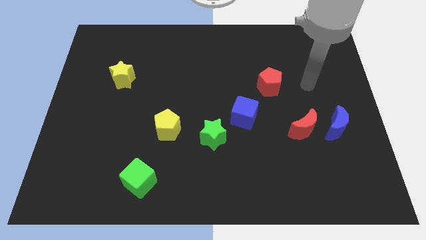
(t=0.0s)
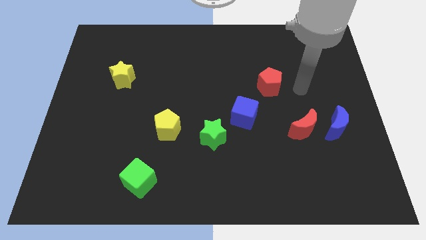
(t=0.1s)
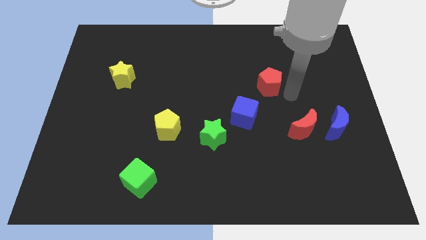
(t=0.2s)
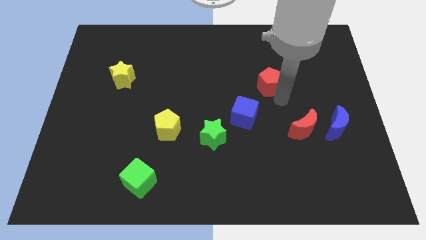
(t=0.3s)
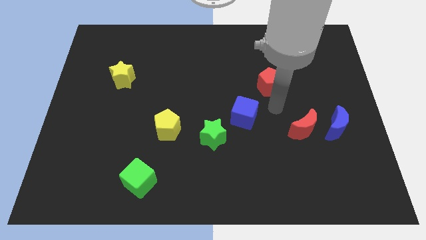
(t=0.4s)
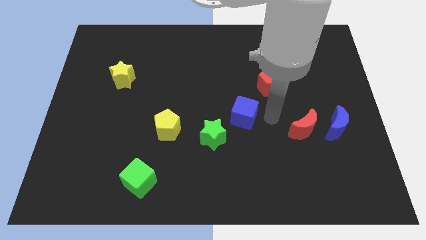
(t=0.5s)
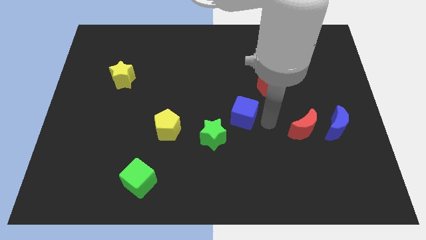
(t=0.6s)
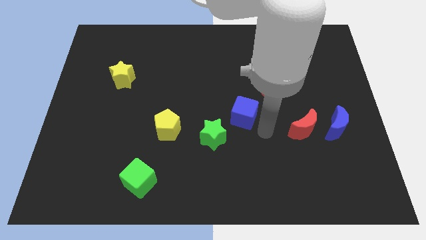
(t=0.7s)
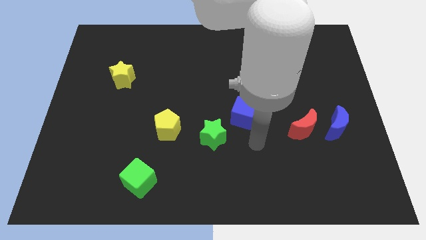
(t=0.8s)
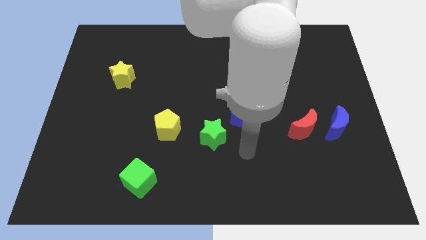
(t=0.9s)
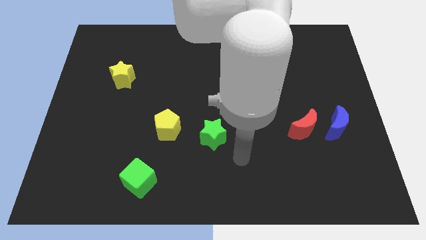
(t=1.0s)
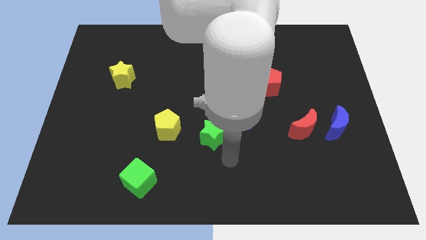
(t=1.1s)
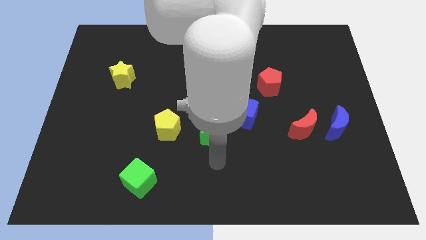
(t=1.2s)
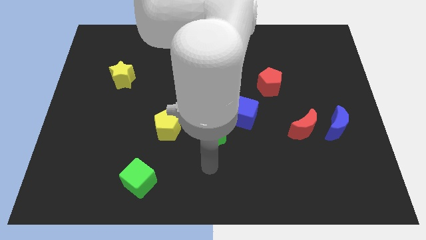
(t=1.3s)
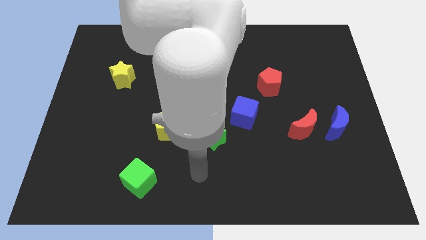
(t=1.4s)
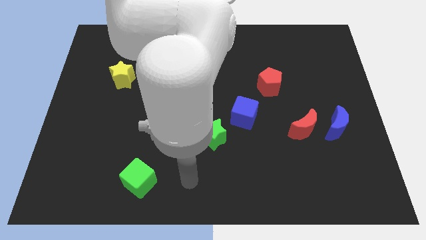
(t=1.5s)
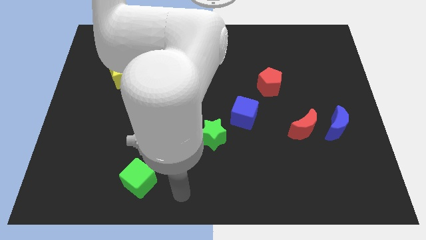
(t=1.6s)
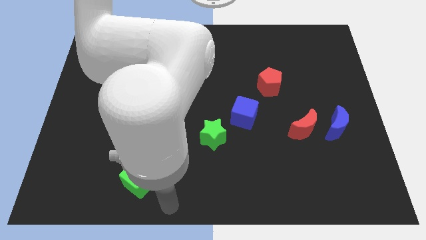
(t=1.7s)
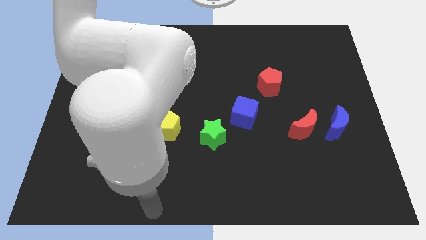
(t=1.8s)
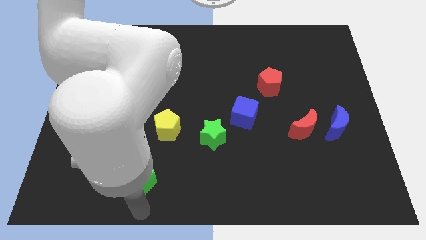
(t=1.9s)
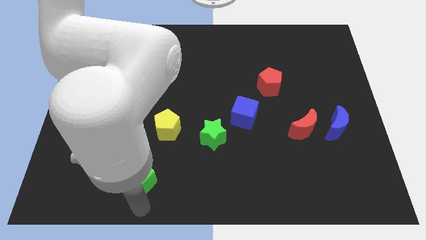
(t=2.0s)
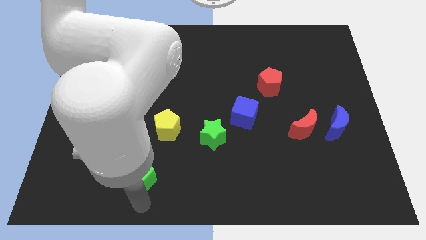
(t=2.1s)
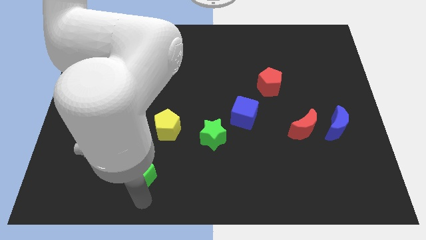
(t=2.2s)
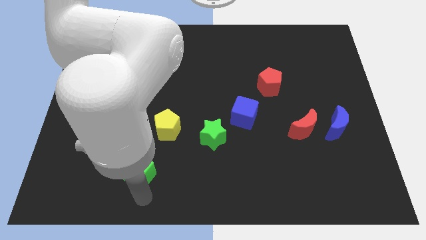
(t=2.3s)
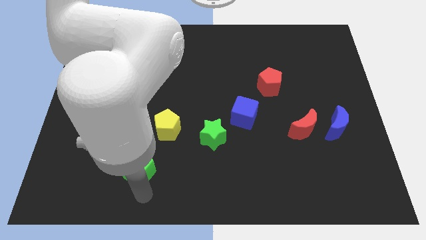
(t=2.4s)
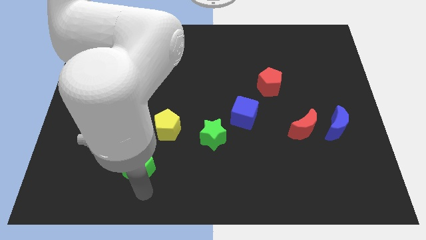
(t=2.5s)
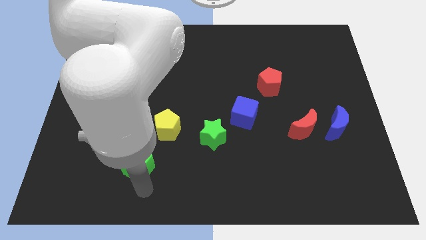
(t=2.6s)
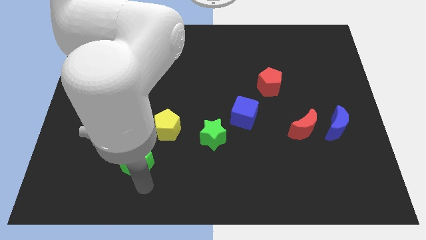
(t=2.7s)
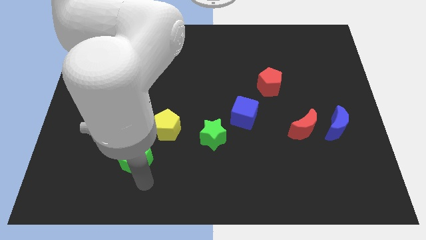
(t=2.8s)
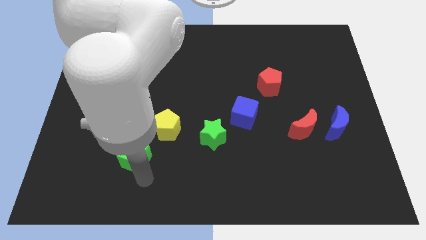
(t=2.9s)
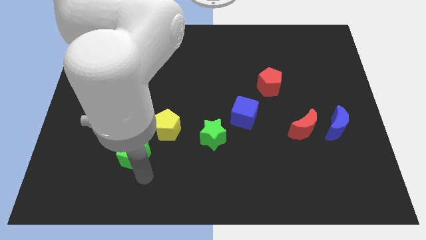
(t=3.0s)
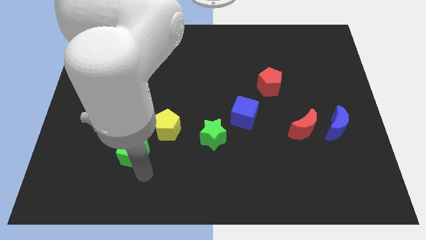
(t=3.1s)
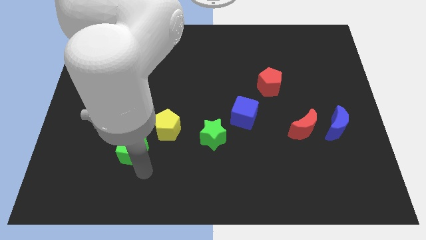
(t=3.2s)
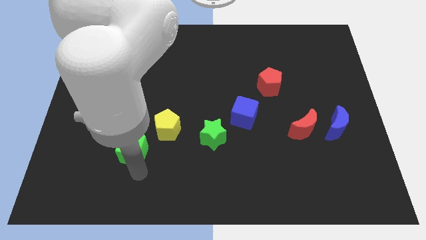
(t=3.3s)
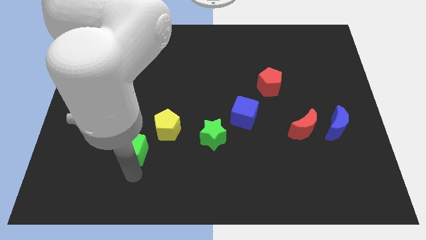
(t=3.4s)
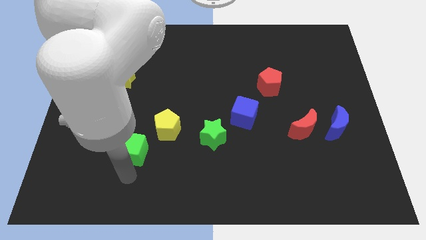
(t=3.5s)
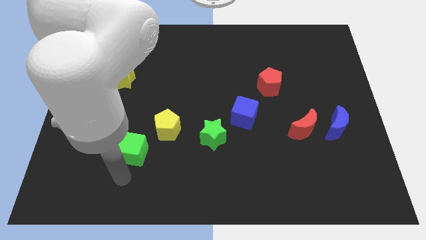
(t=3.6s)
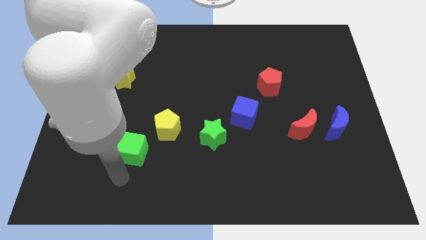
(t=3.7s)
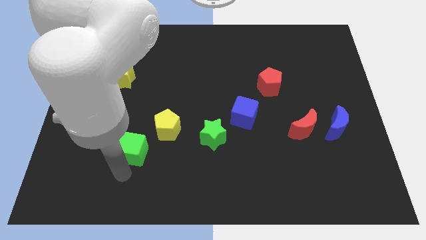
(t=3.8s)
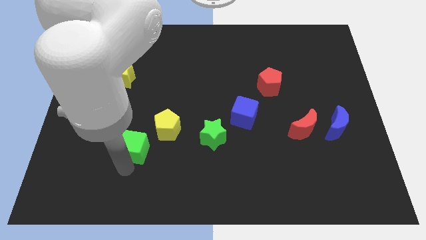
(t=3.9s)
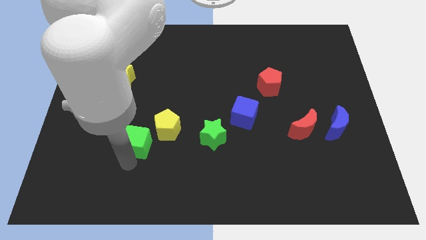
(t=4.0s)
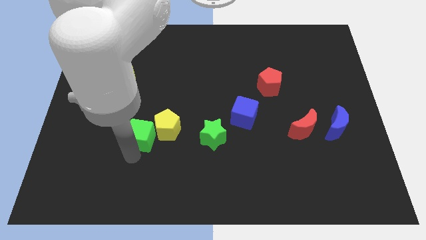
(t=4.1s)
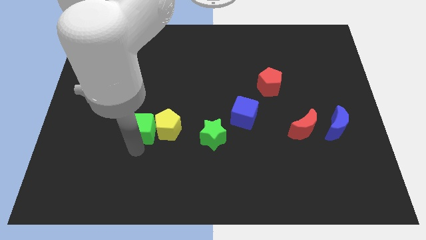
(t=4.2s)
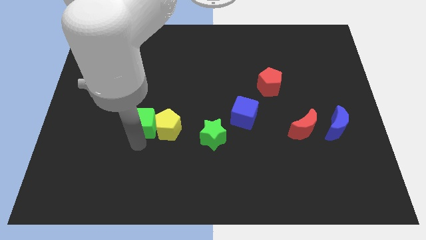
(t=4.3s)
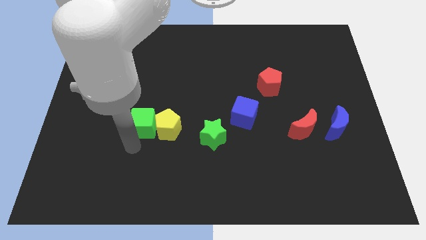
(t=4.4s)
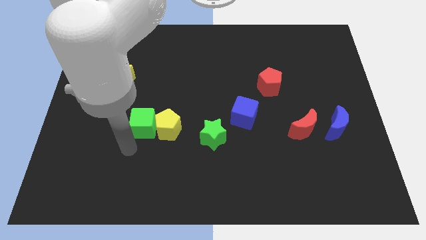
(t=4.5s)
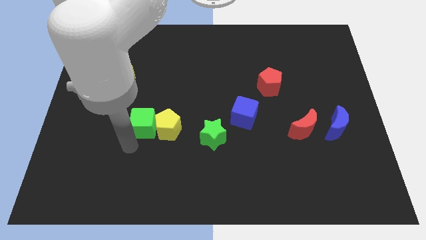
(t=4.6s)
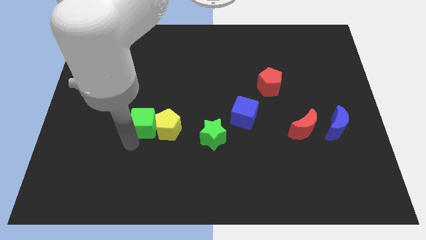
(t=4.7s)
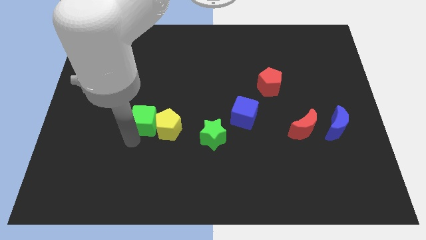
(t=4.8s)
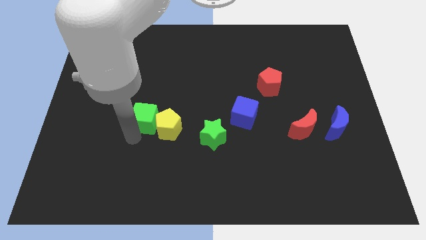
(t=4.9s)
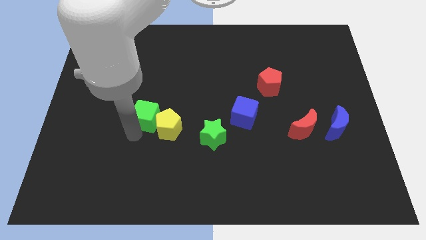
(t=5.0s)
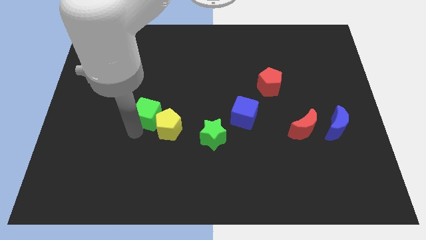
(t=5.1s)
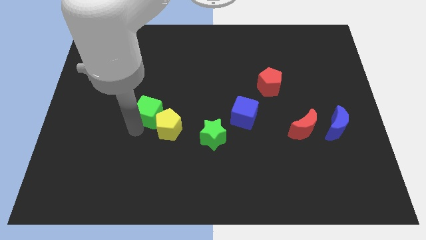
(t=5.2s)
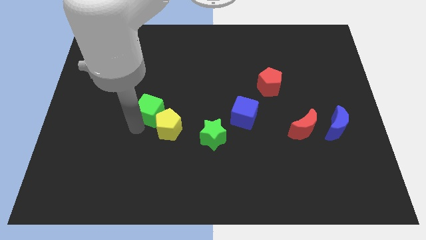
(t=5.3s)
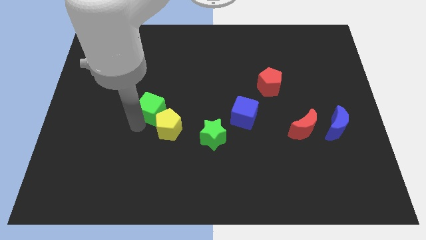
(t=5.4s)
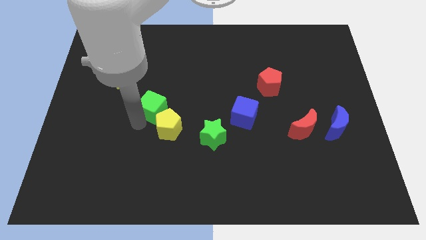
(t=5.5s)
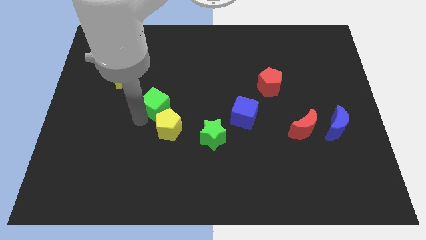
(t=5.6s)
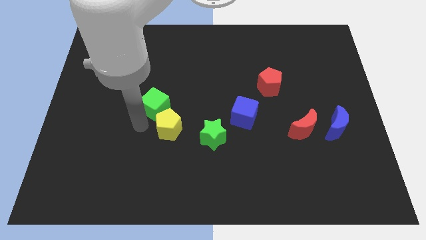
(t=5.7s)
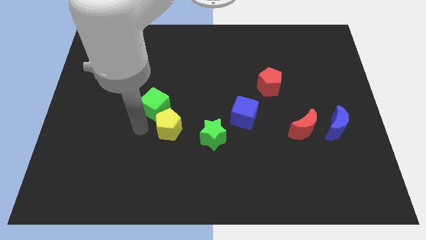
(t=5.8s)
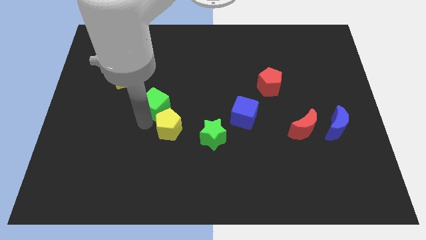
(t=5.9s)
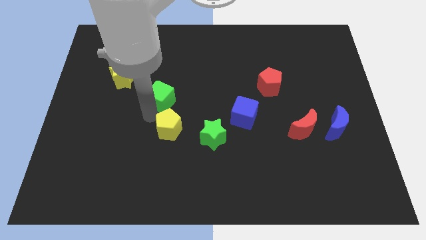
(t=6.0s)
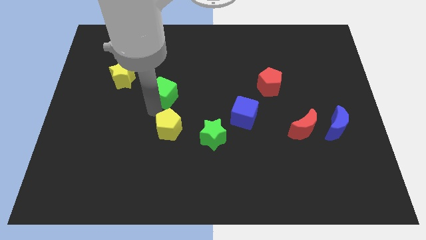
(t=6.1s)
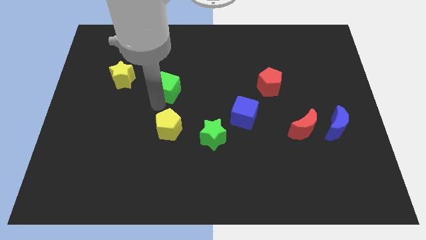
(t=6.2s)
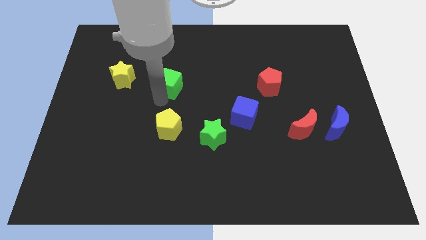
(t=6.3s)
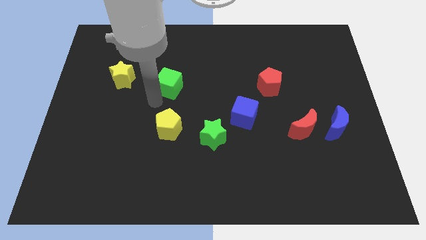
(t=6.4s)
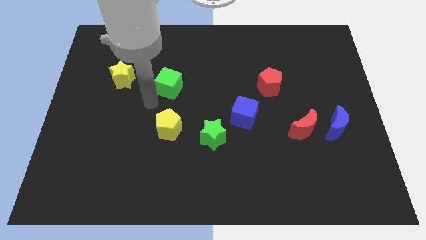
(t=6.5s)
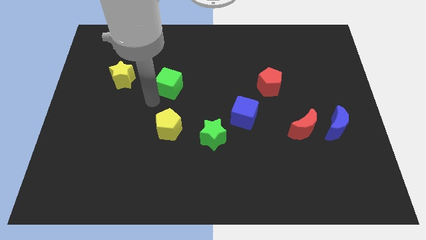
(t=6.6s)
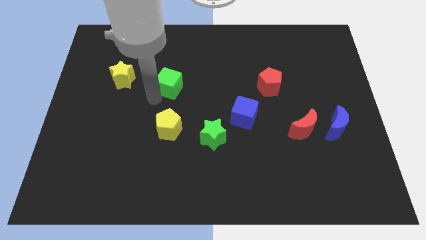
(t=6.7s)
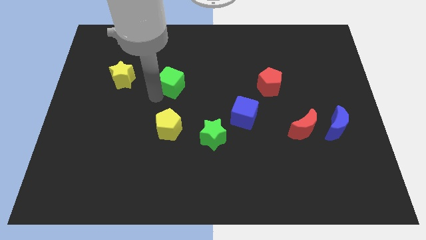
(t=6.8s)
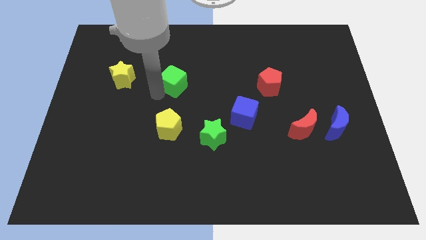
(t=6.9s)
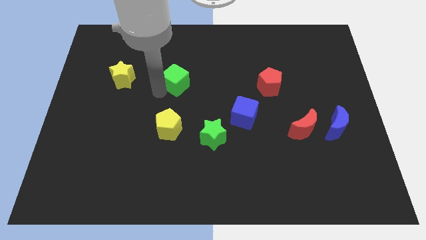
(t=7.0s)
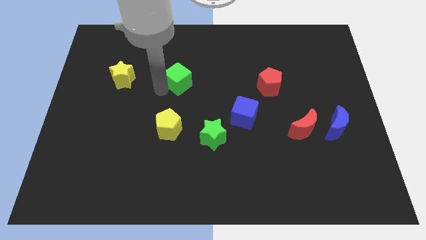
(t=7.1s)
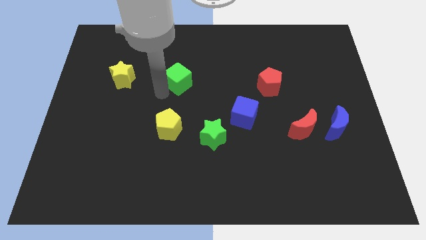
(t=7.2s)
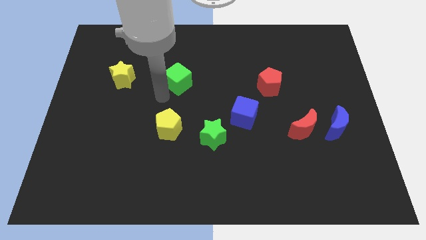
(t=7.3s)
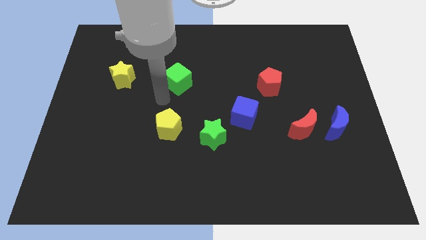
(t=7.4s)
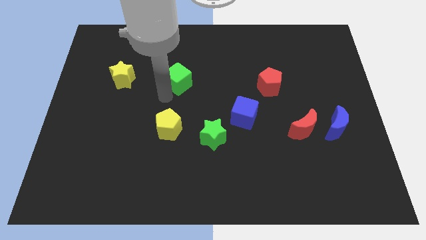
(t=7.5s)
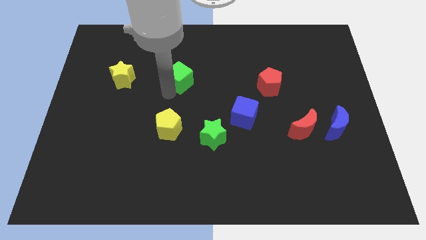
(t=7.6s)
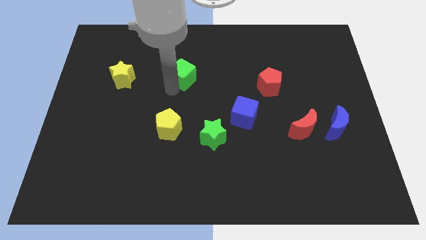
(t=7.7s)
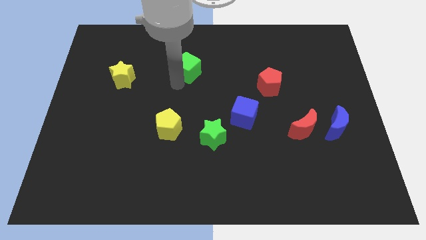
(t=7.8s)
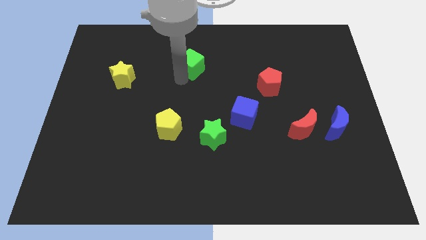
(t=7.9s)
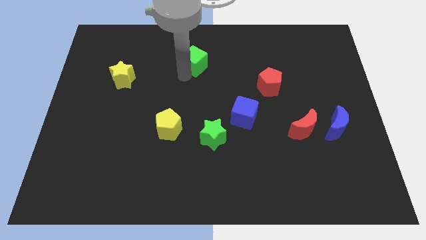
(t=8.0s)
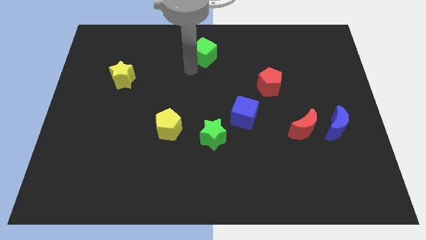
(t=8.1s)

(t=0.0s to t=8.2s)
push the green cube to the top
